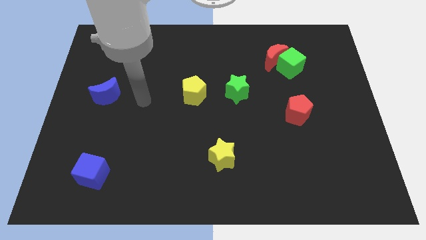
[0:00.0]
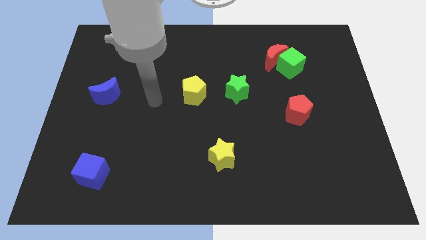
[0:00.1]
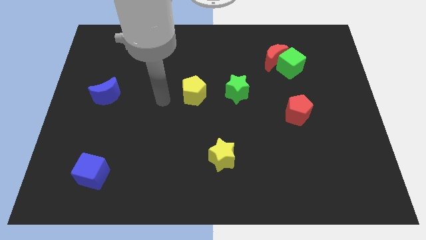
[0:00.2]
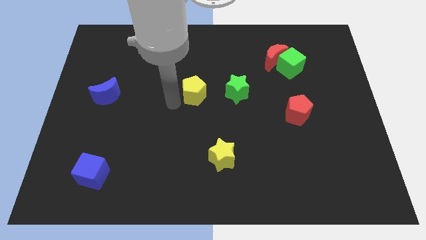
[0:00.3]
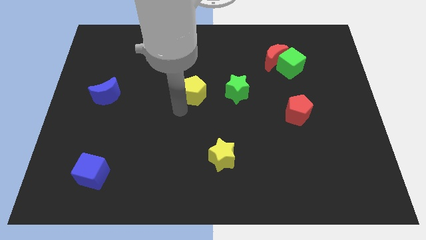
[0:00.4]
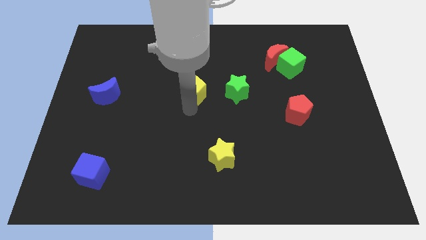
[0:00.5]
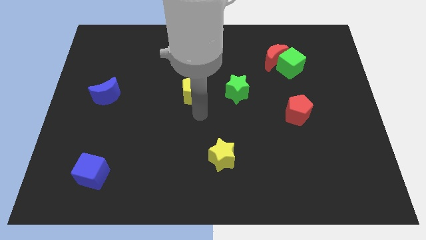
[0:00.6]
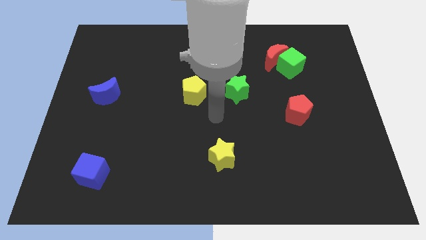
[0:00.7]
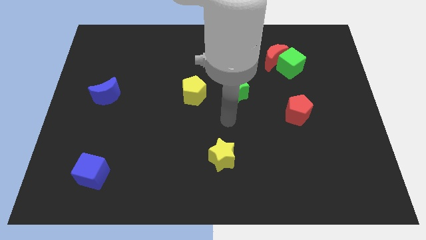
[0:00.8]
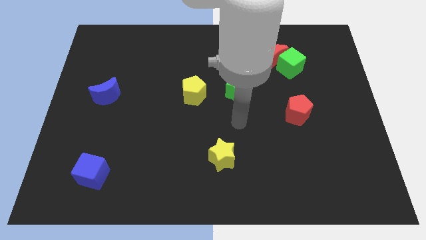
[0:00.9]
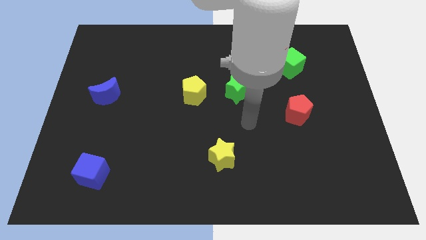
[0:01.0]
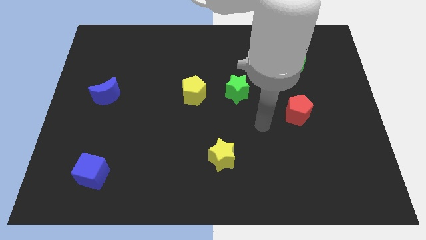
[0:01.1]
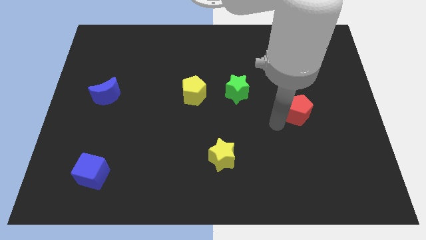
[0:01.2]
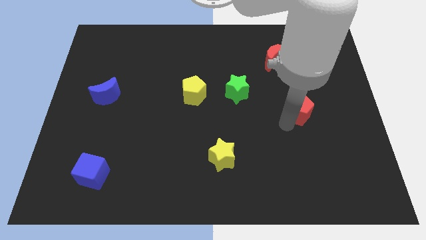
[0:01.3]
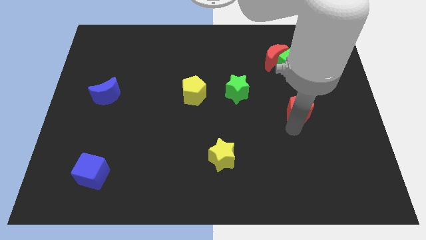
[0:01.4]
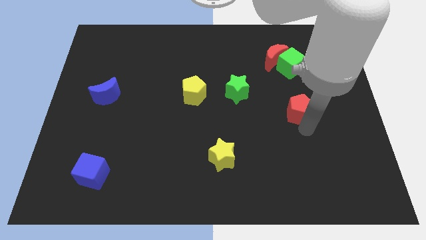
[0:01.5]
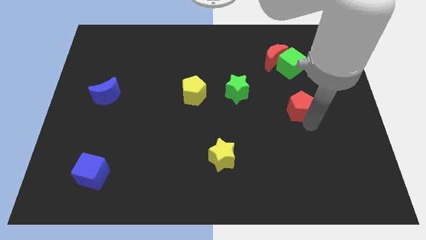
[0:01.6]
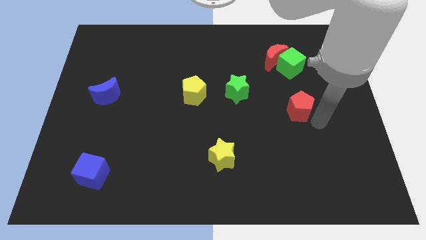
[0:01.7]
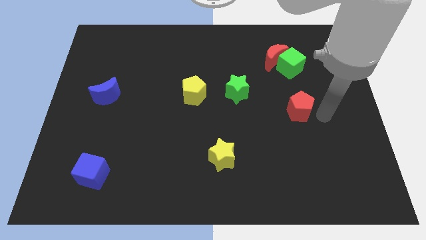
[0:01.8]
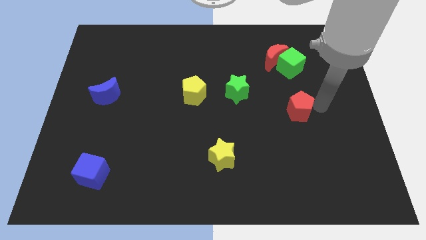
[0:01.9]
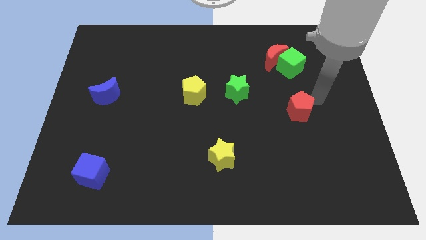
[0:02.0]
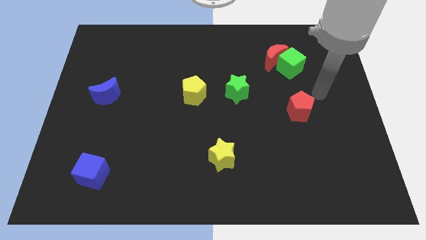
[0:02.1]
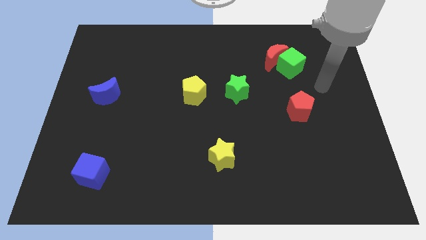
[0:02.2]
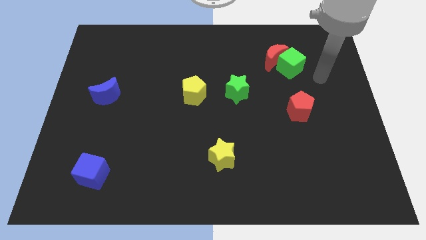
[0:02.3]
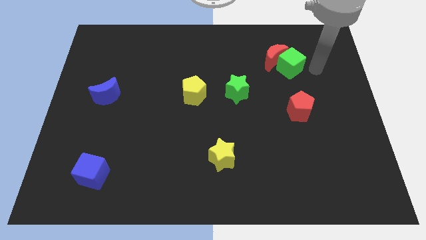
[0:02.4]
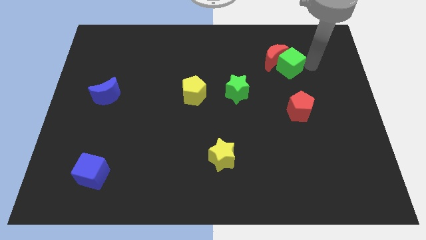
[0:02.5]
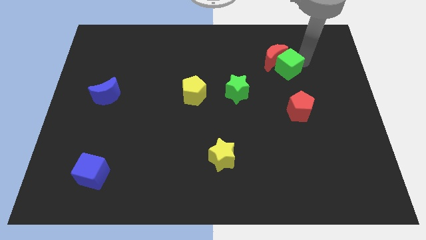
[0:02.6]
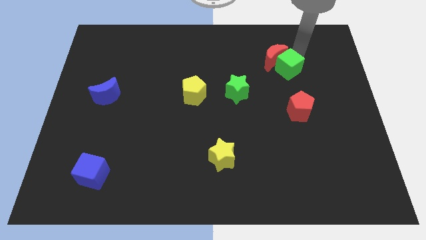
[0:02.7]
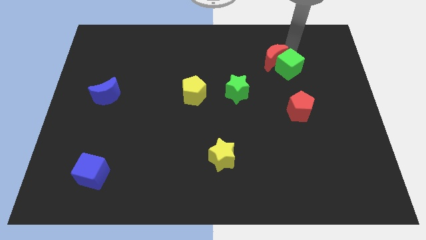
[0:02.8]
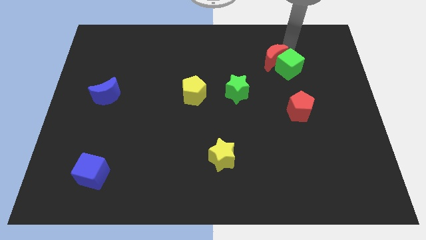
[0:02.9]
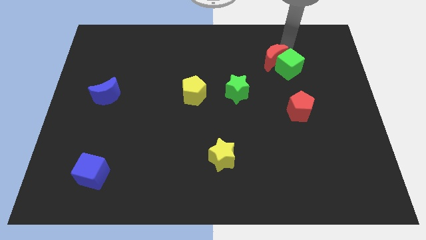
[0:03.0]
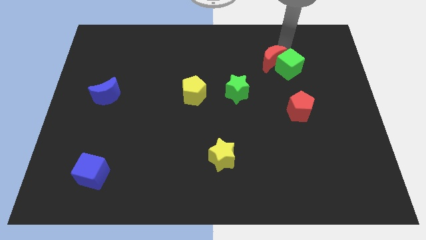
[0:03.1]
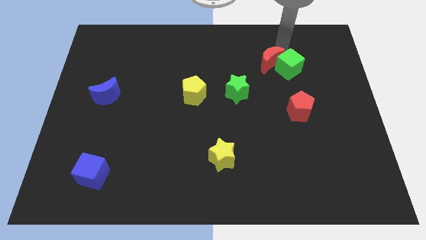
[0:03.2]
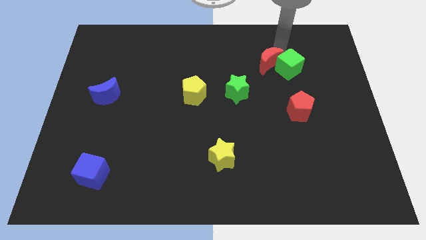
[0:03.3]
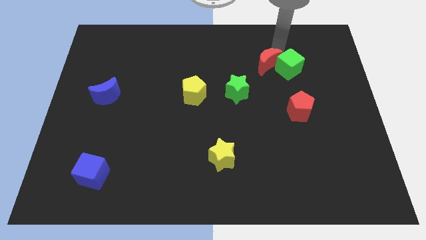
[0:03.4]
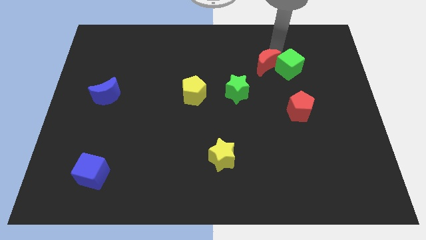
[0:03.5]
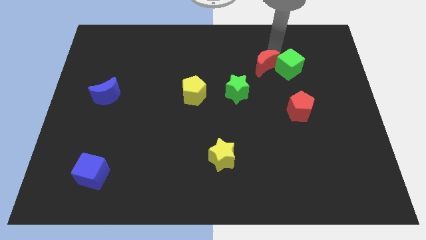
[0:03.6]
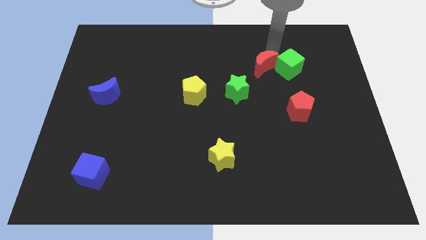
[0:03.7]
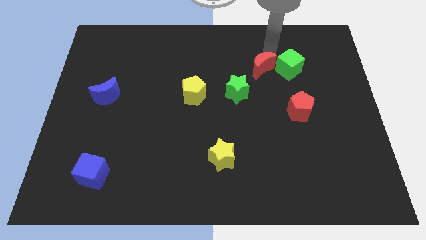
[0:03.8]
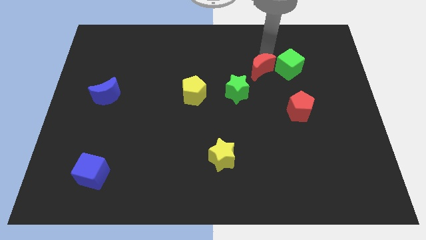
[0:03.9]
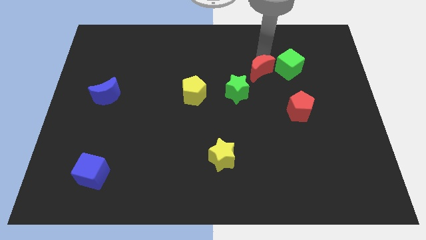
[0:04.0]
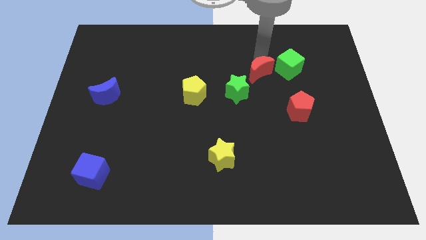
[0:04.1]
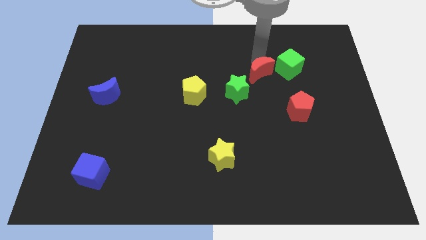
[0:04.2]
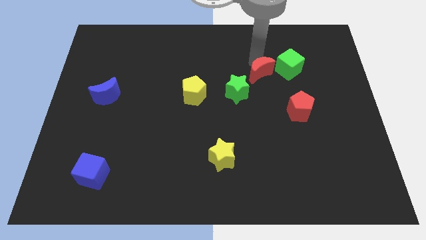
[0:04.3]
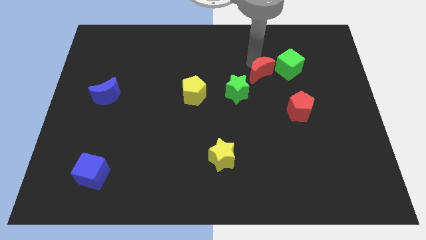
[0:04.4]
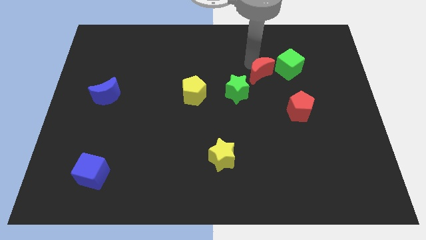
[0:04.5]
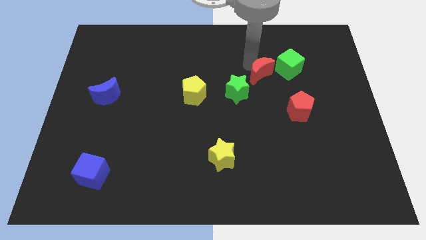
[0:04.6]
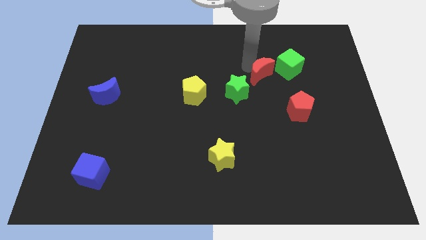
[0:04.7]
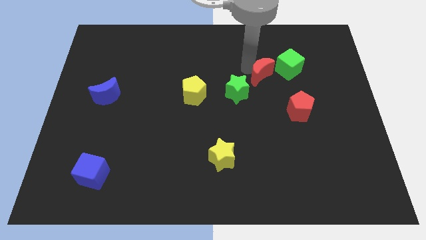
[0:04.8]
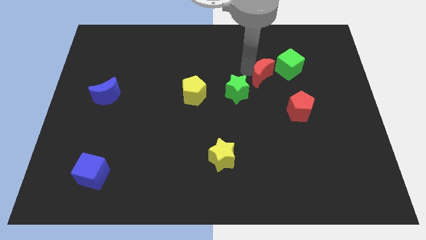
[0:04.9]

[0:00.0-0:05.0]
slightly push the red moon down and to the left diagonally

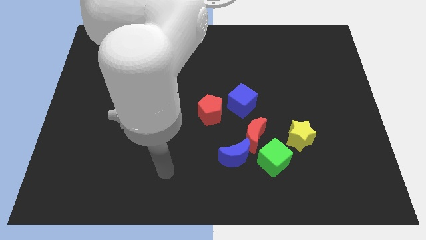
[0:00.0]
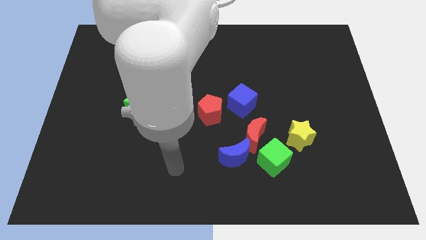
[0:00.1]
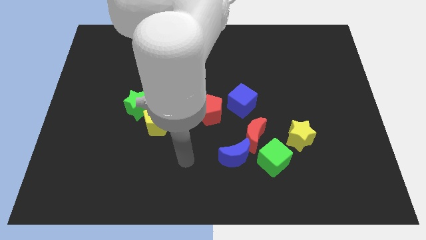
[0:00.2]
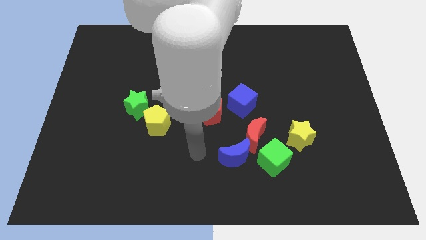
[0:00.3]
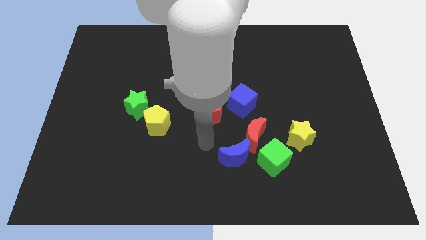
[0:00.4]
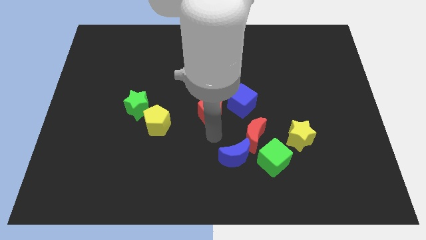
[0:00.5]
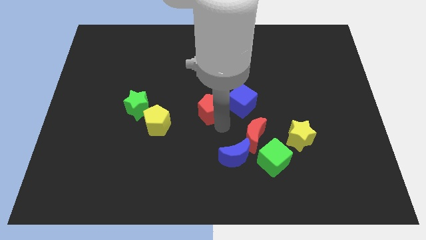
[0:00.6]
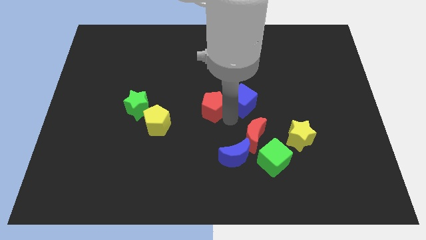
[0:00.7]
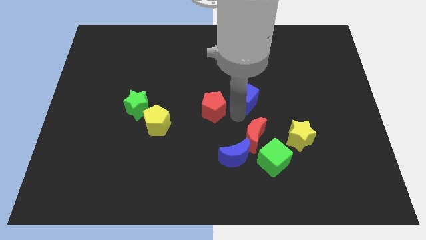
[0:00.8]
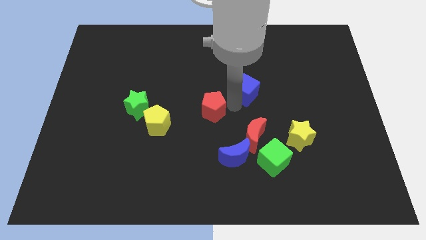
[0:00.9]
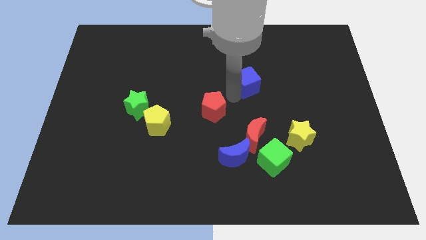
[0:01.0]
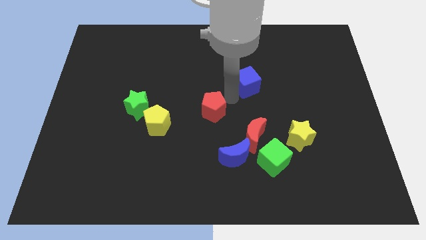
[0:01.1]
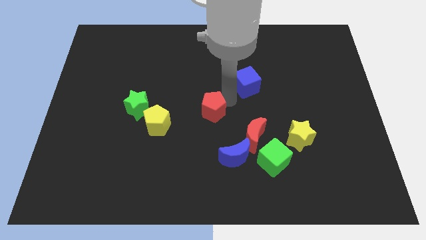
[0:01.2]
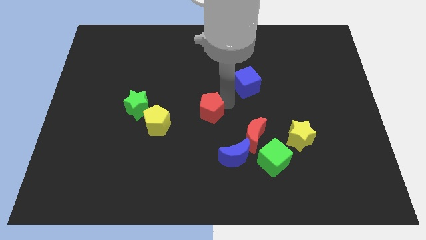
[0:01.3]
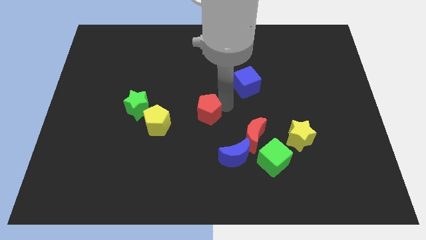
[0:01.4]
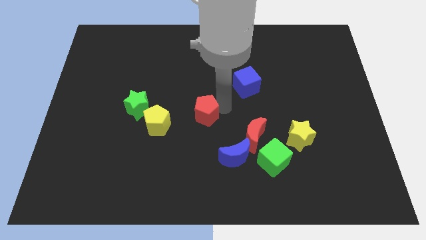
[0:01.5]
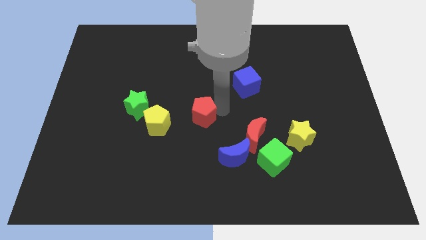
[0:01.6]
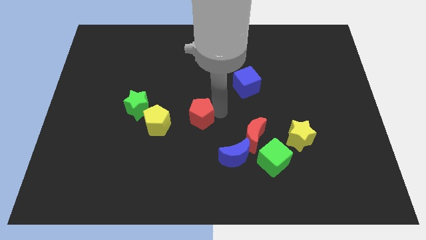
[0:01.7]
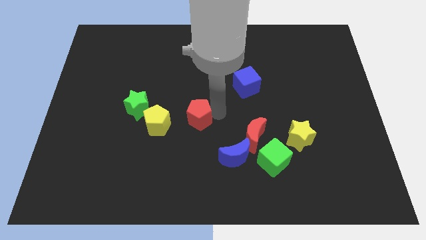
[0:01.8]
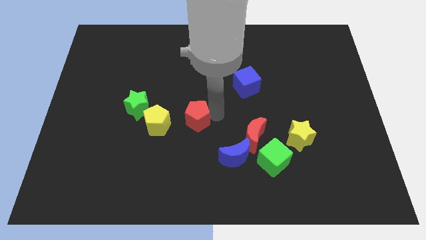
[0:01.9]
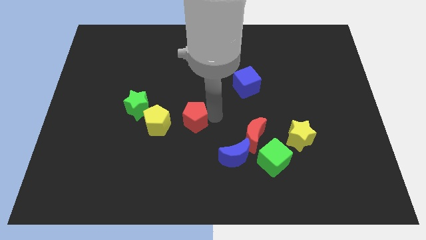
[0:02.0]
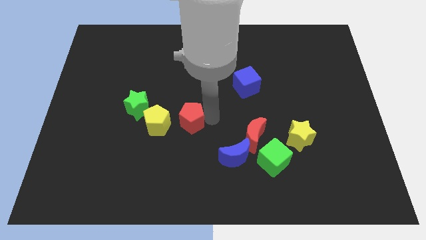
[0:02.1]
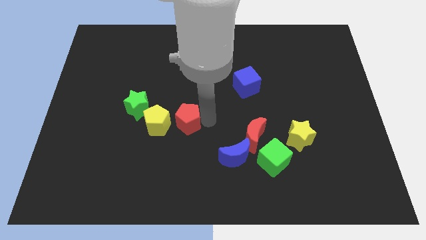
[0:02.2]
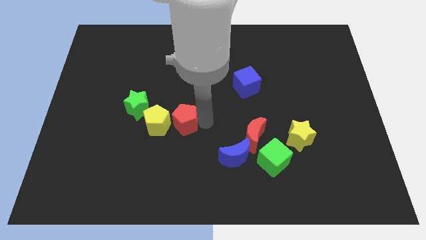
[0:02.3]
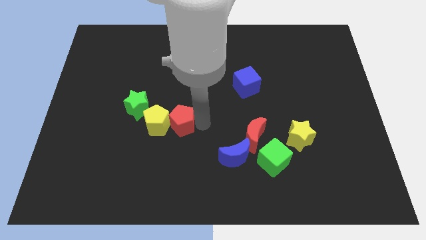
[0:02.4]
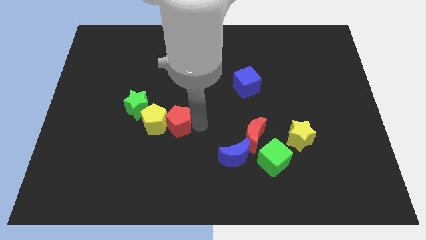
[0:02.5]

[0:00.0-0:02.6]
move the red pentagon down and left somewhat

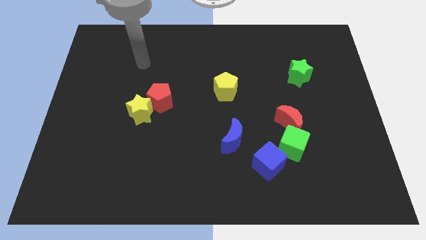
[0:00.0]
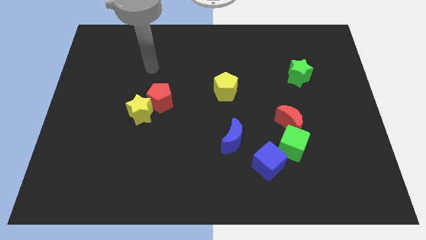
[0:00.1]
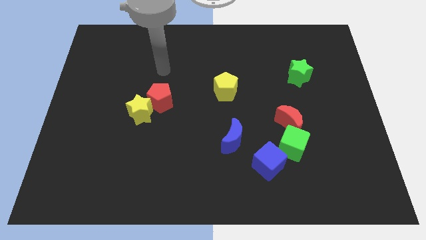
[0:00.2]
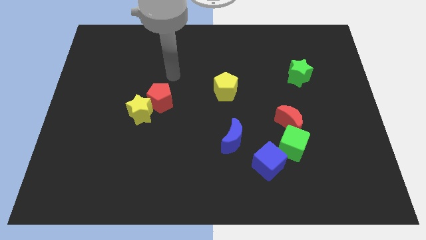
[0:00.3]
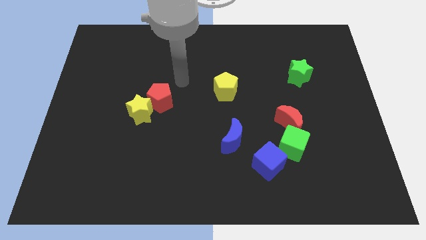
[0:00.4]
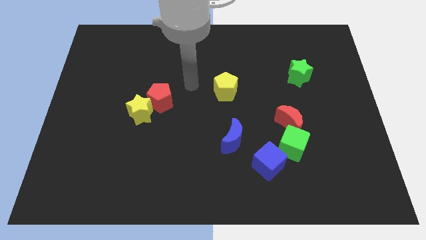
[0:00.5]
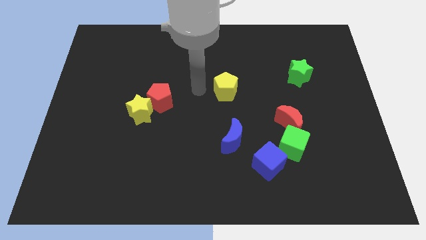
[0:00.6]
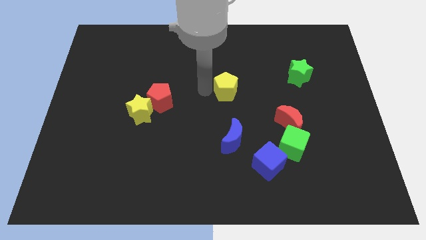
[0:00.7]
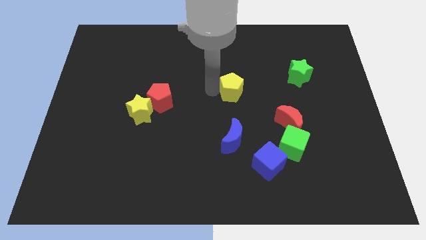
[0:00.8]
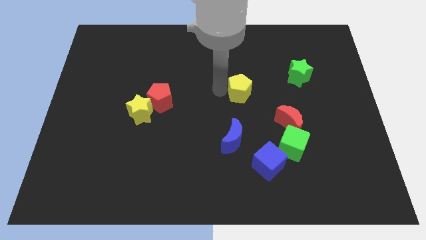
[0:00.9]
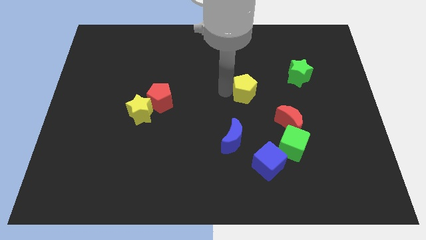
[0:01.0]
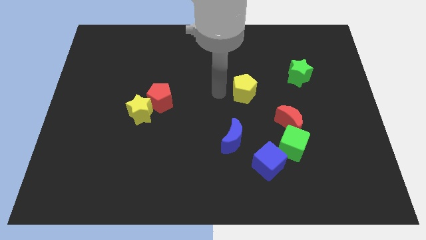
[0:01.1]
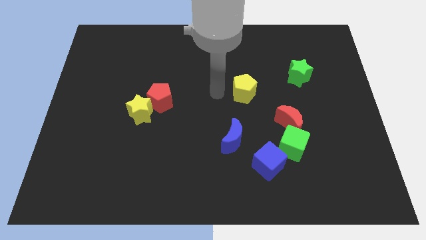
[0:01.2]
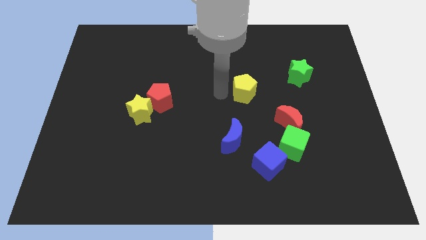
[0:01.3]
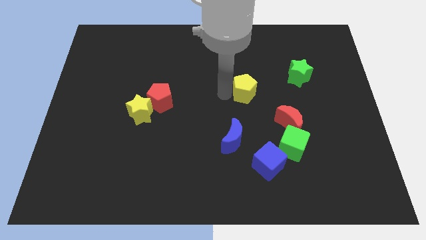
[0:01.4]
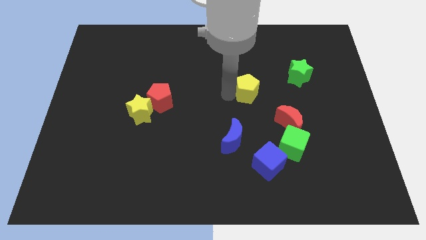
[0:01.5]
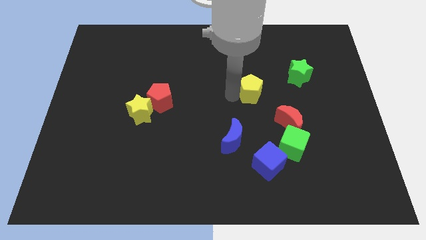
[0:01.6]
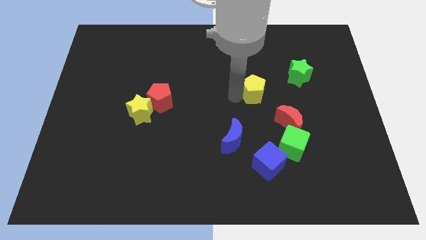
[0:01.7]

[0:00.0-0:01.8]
push the yellow pentagon right a little
